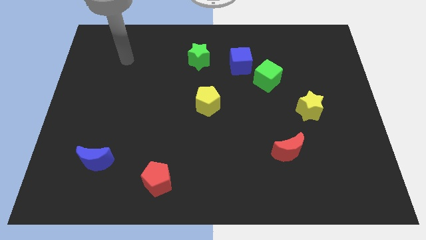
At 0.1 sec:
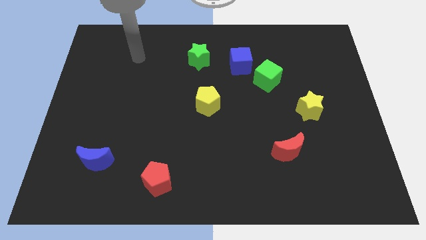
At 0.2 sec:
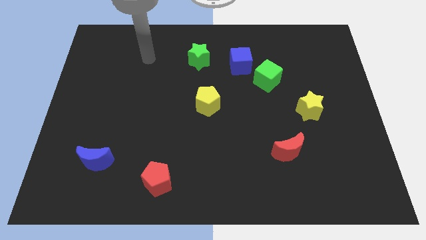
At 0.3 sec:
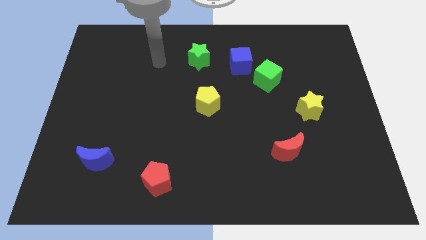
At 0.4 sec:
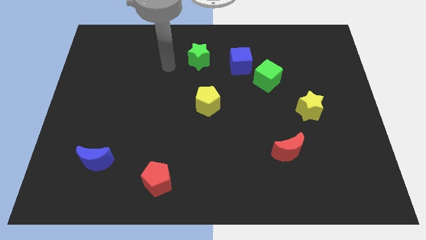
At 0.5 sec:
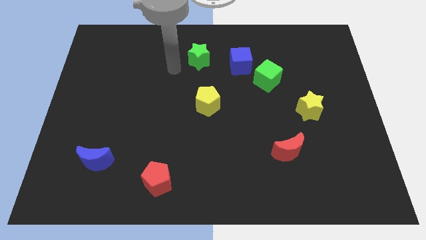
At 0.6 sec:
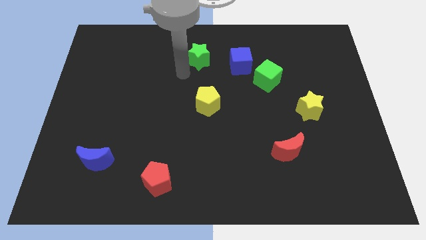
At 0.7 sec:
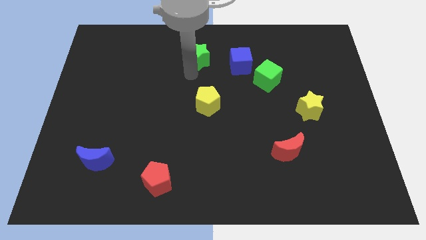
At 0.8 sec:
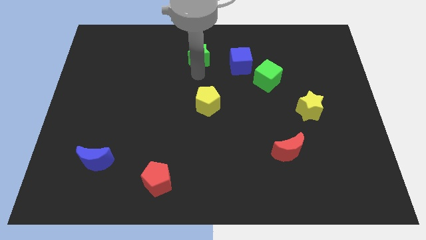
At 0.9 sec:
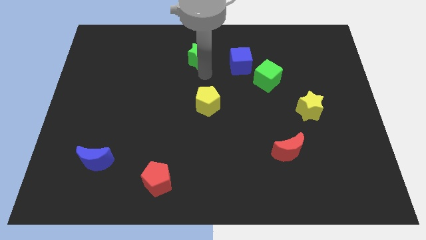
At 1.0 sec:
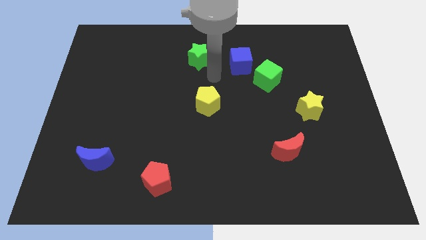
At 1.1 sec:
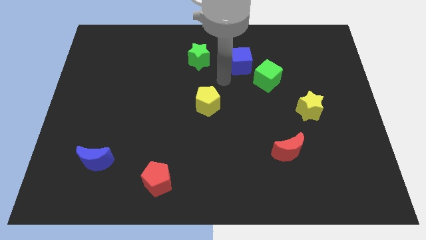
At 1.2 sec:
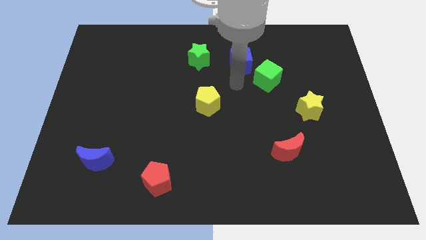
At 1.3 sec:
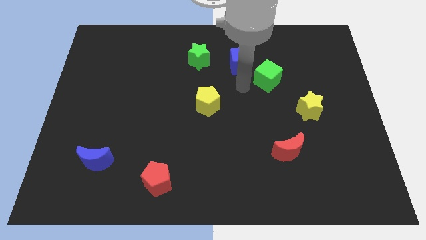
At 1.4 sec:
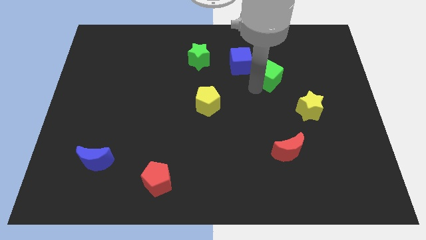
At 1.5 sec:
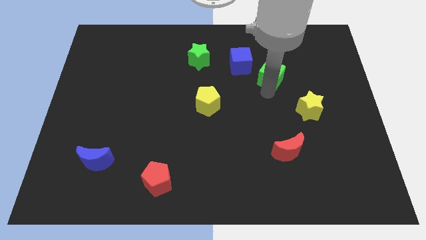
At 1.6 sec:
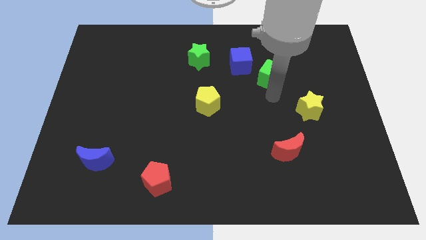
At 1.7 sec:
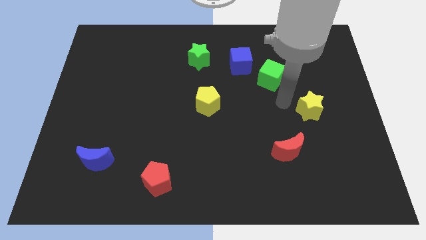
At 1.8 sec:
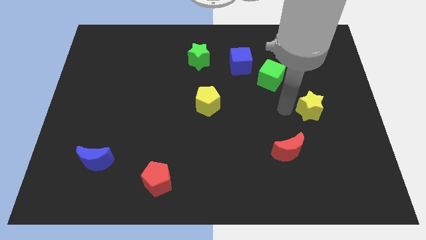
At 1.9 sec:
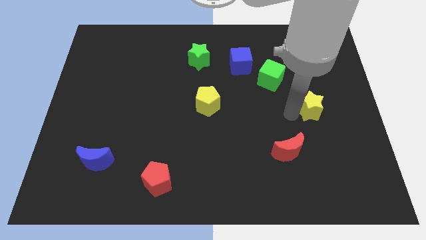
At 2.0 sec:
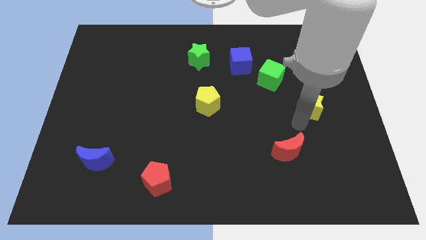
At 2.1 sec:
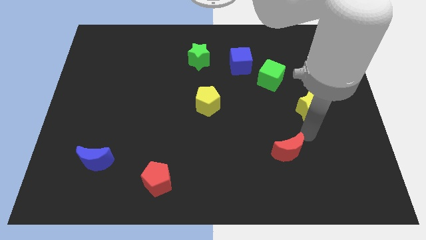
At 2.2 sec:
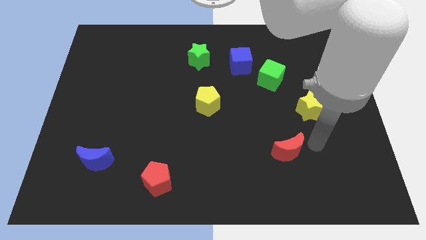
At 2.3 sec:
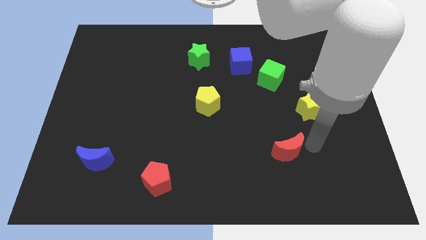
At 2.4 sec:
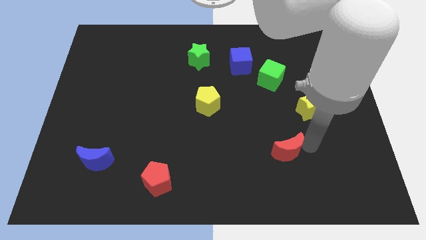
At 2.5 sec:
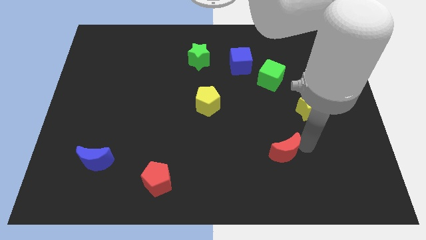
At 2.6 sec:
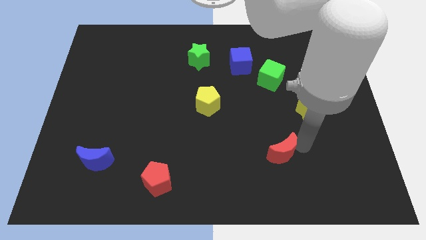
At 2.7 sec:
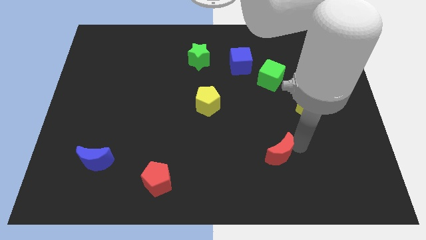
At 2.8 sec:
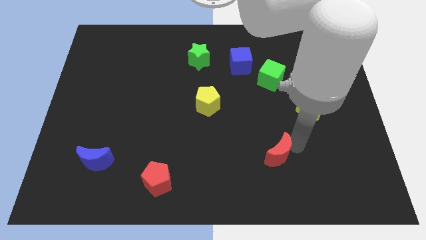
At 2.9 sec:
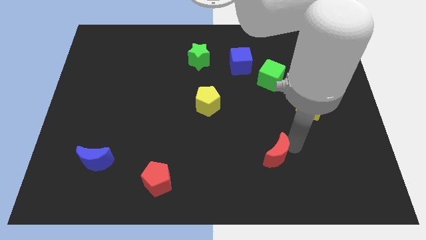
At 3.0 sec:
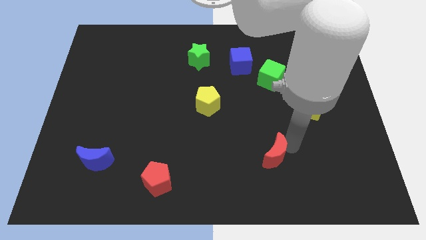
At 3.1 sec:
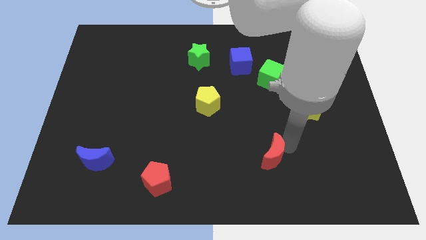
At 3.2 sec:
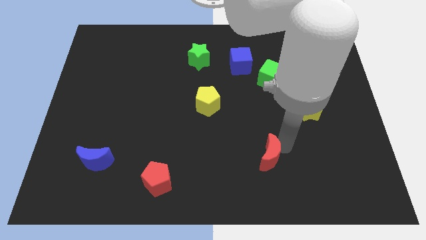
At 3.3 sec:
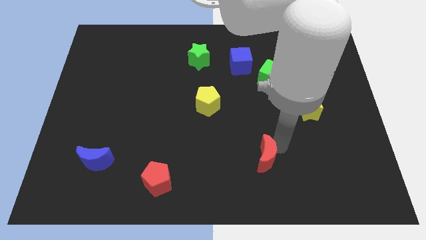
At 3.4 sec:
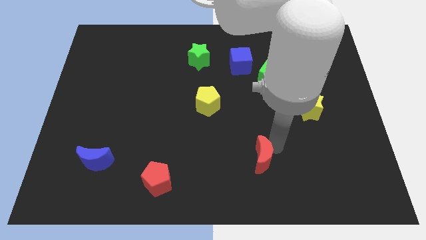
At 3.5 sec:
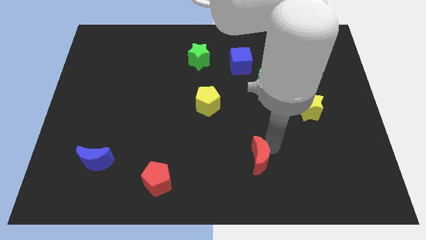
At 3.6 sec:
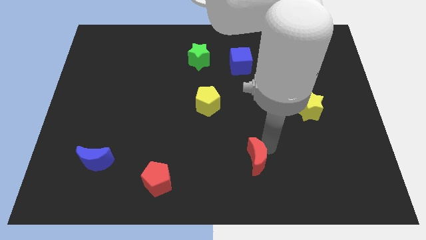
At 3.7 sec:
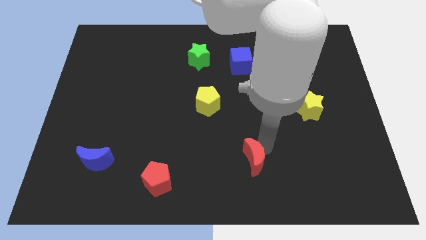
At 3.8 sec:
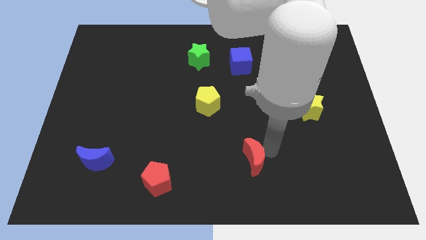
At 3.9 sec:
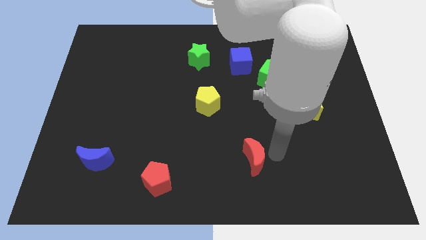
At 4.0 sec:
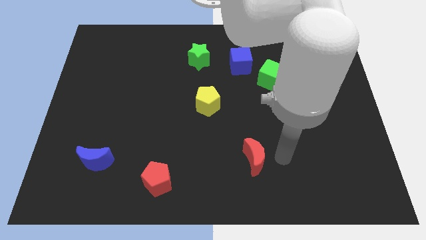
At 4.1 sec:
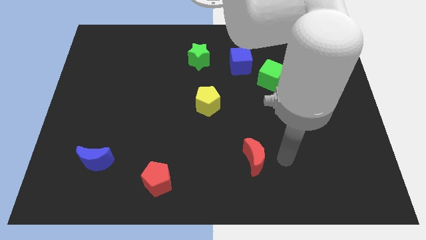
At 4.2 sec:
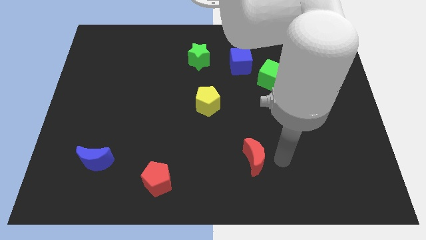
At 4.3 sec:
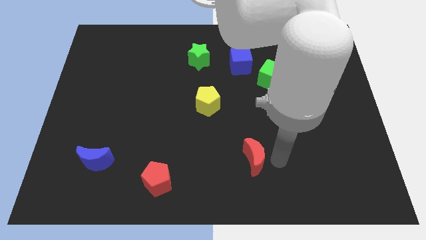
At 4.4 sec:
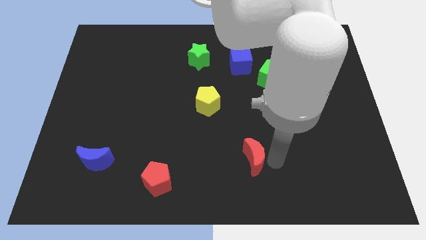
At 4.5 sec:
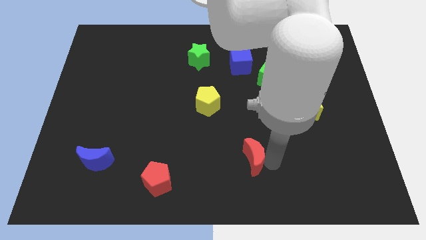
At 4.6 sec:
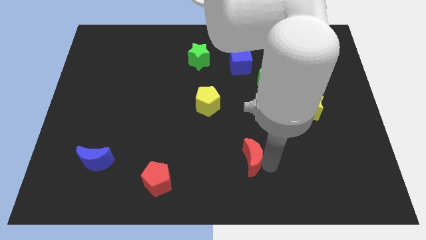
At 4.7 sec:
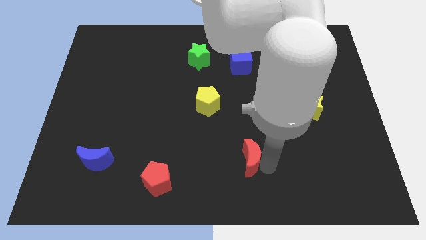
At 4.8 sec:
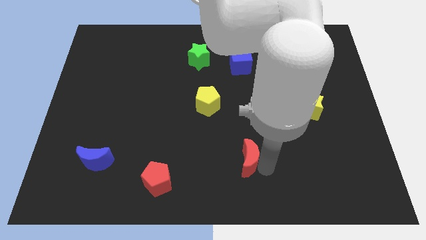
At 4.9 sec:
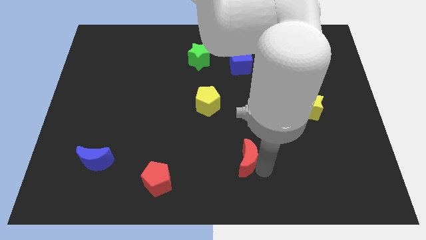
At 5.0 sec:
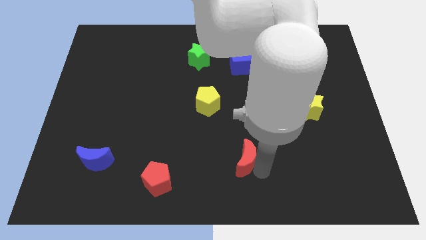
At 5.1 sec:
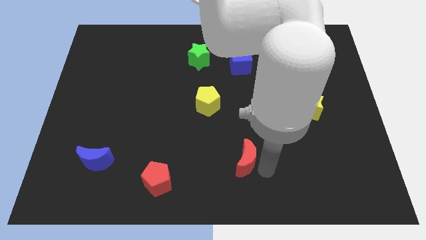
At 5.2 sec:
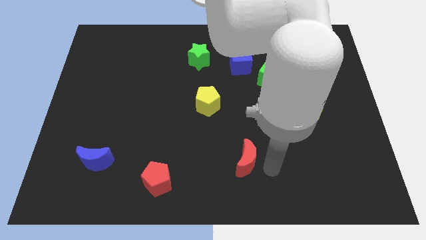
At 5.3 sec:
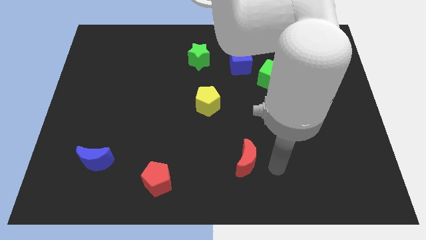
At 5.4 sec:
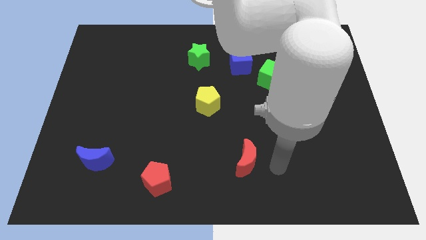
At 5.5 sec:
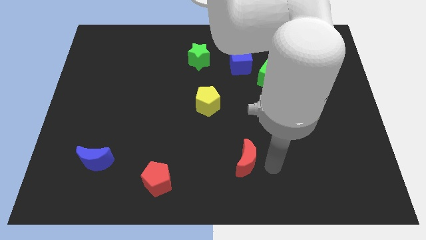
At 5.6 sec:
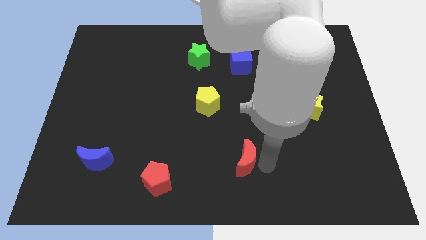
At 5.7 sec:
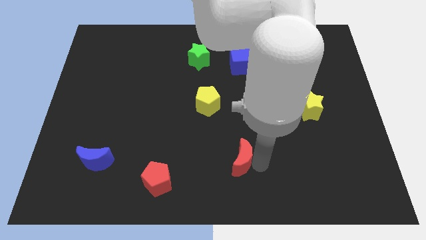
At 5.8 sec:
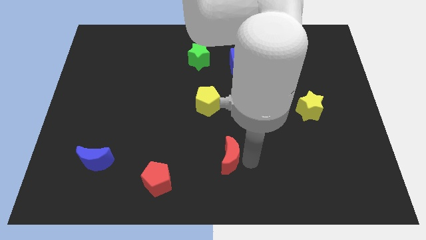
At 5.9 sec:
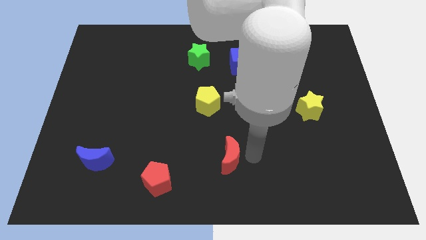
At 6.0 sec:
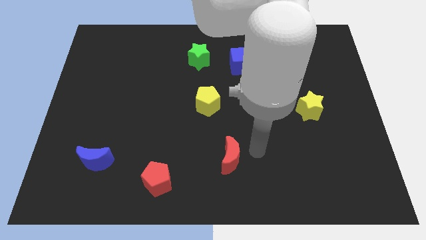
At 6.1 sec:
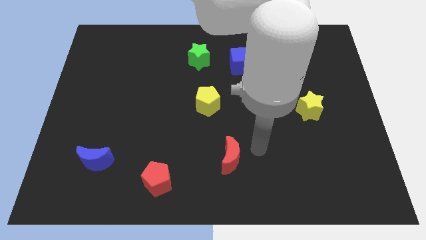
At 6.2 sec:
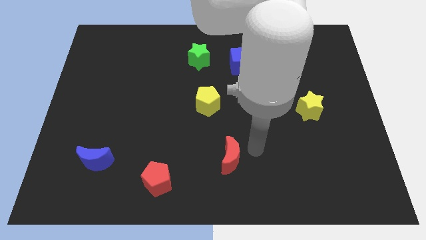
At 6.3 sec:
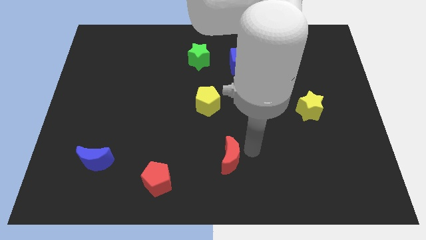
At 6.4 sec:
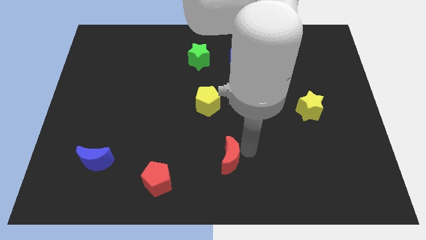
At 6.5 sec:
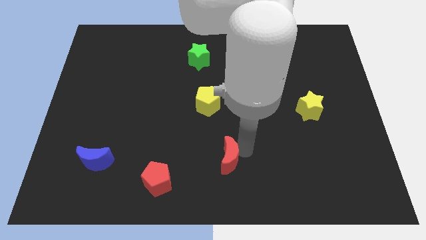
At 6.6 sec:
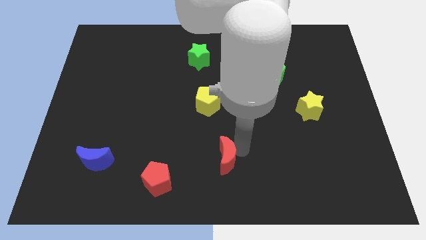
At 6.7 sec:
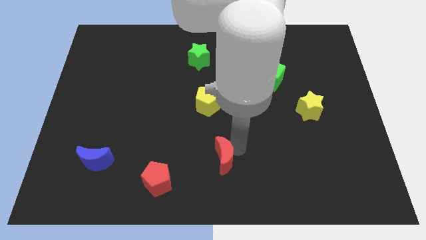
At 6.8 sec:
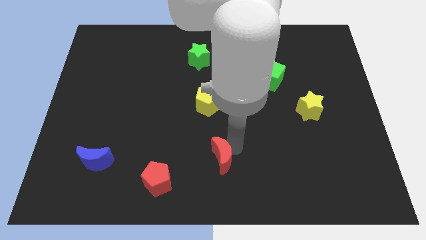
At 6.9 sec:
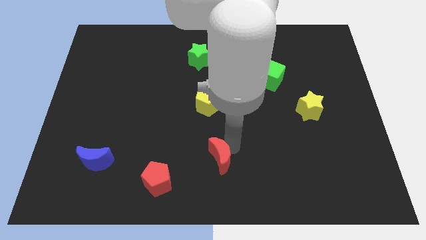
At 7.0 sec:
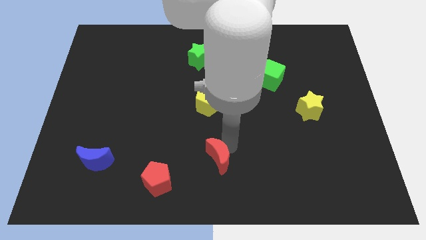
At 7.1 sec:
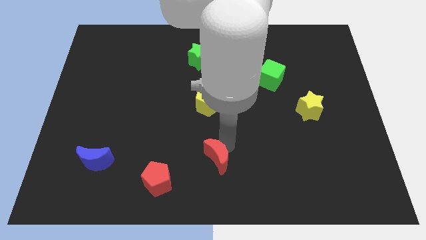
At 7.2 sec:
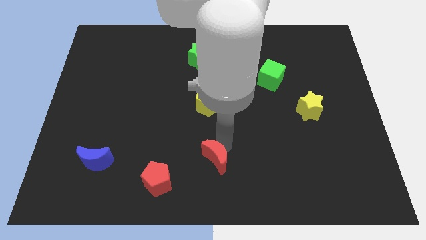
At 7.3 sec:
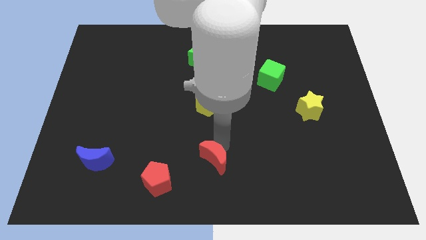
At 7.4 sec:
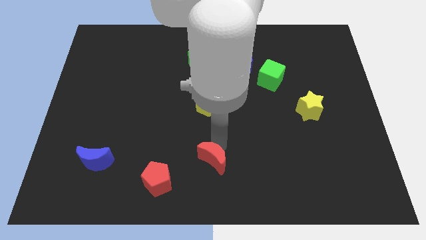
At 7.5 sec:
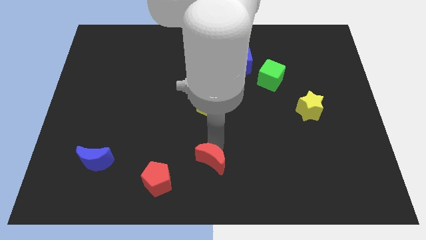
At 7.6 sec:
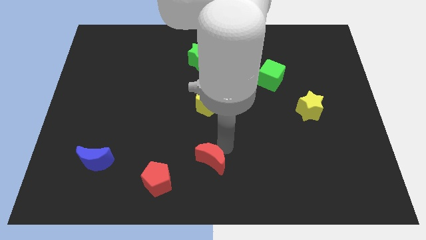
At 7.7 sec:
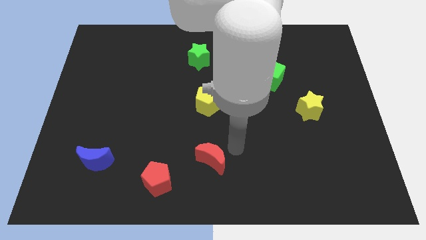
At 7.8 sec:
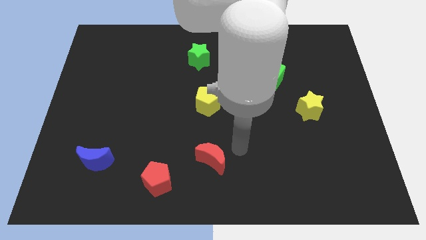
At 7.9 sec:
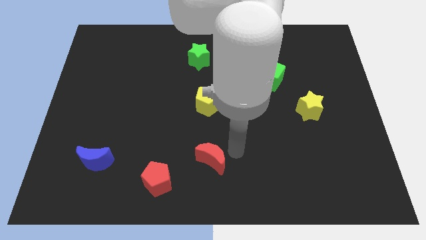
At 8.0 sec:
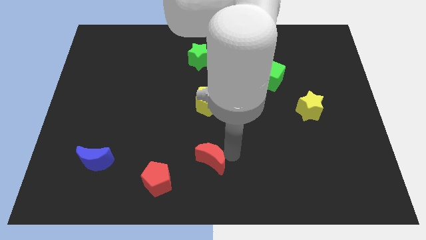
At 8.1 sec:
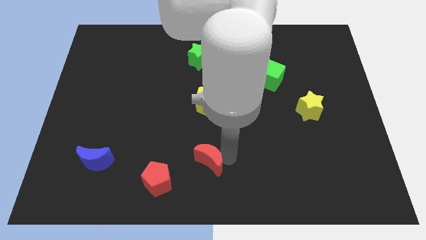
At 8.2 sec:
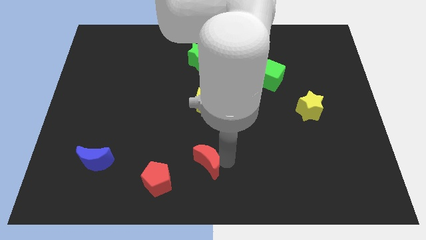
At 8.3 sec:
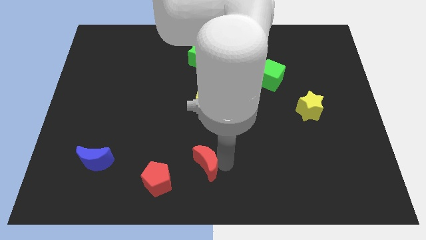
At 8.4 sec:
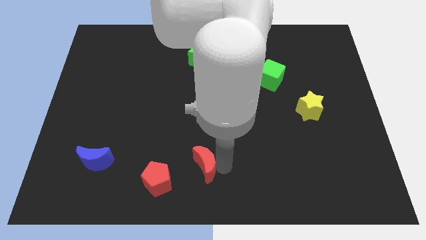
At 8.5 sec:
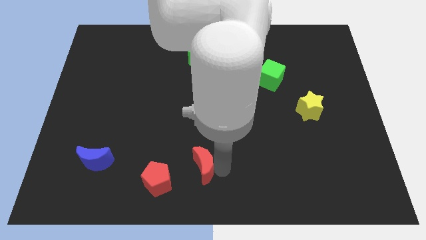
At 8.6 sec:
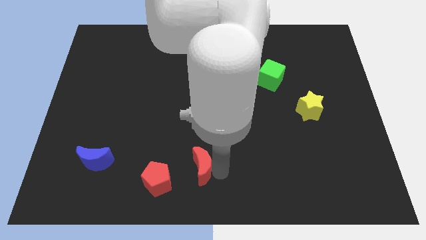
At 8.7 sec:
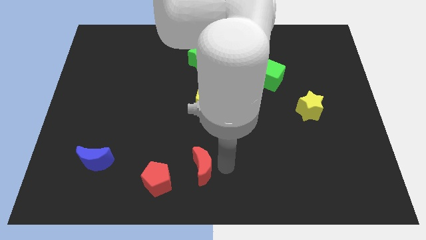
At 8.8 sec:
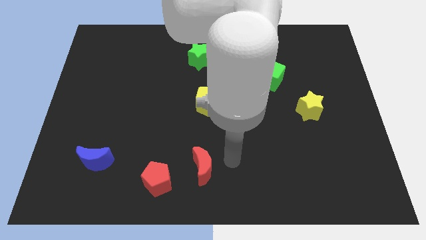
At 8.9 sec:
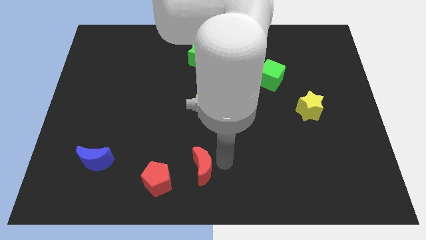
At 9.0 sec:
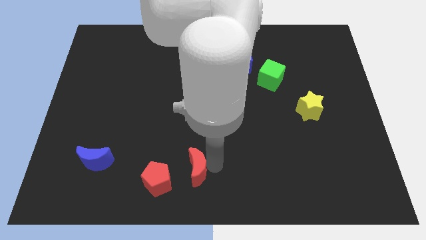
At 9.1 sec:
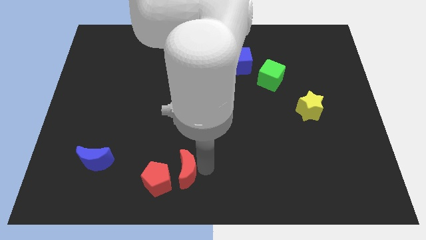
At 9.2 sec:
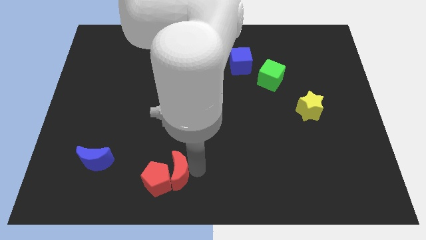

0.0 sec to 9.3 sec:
put the red moon next to the red pentagon
